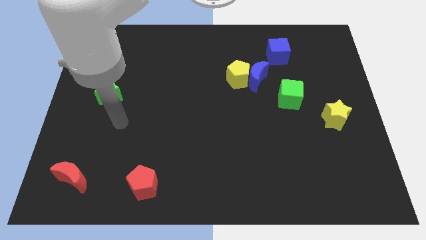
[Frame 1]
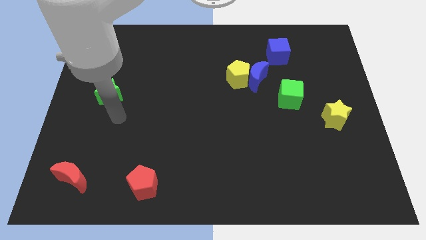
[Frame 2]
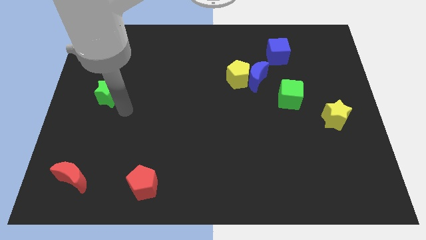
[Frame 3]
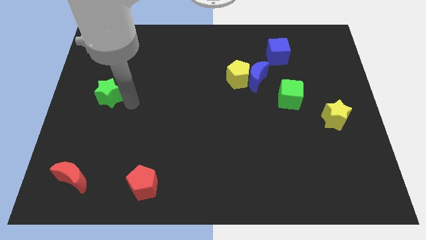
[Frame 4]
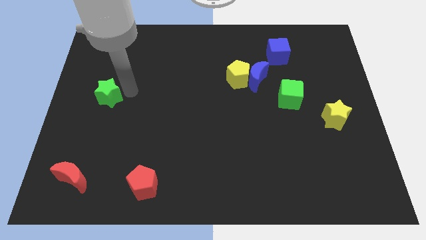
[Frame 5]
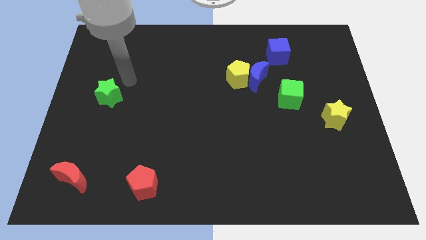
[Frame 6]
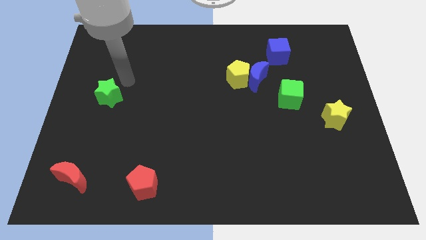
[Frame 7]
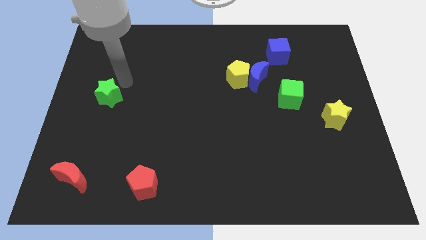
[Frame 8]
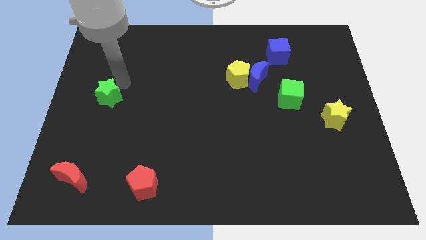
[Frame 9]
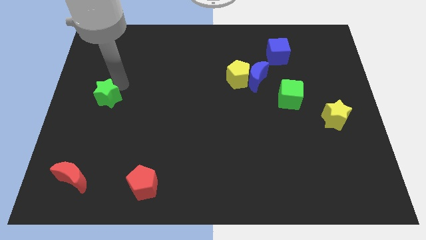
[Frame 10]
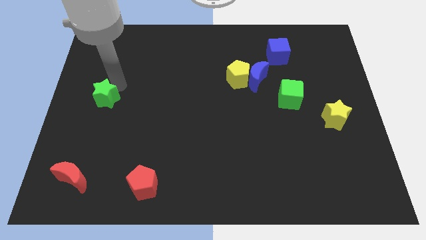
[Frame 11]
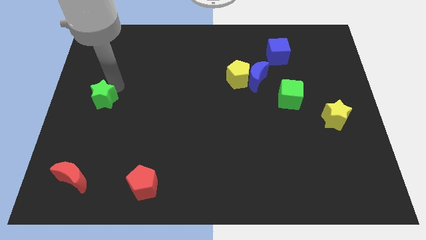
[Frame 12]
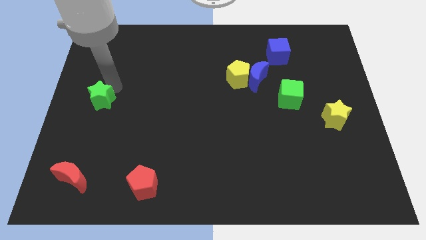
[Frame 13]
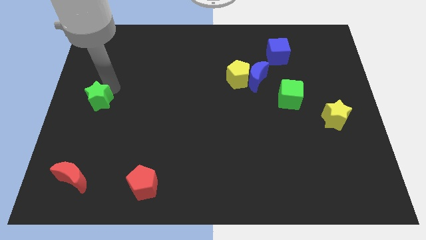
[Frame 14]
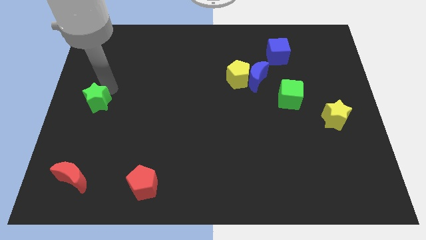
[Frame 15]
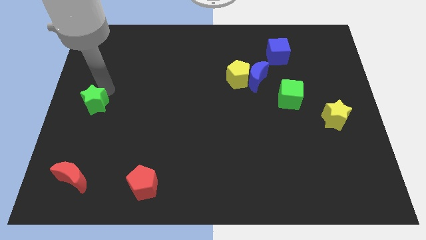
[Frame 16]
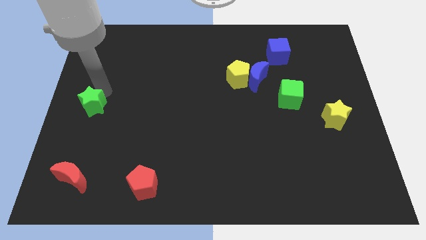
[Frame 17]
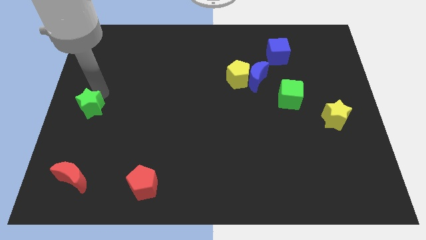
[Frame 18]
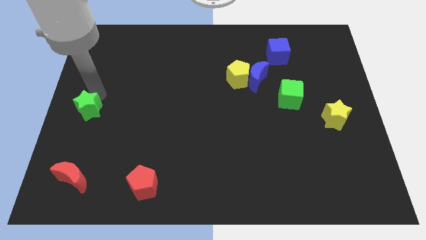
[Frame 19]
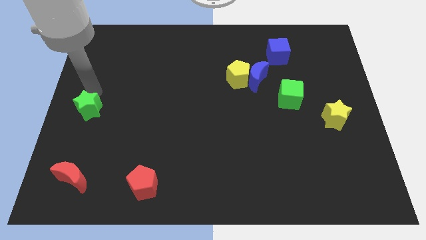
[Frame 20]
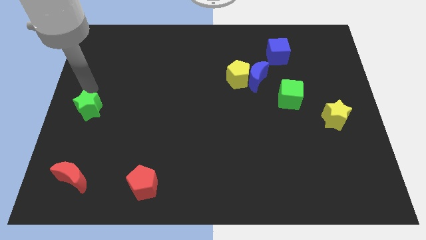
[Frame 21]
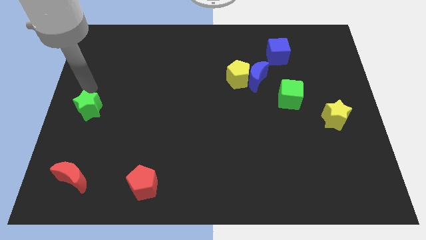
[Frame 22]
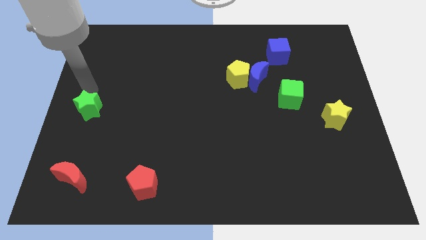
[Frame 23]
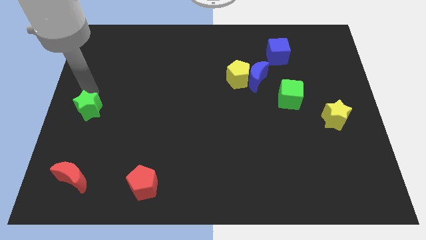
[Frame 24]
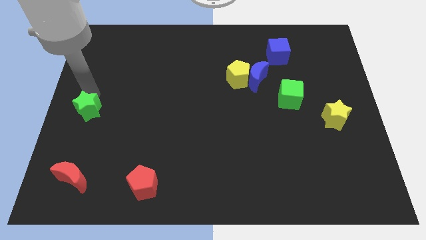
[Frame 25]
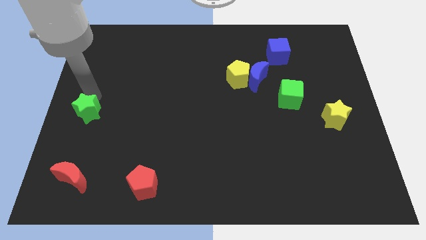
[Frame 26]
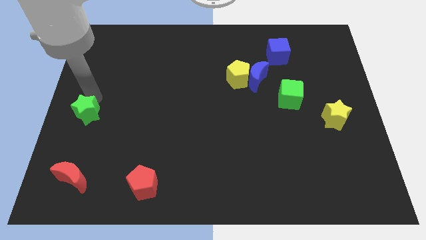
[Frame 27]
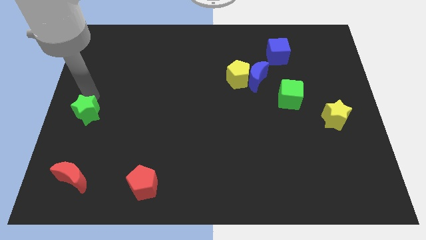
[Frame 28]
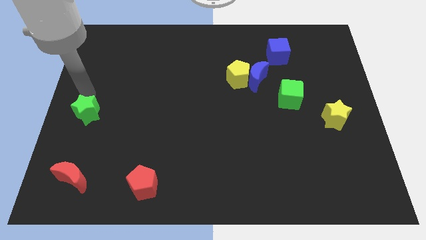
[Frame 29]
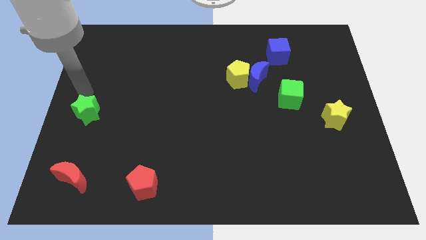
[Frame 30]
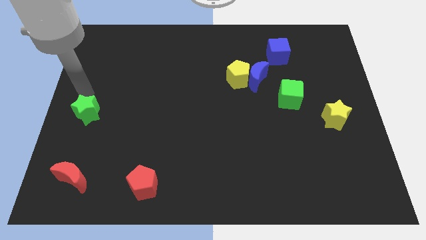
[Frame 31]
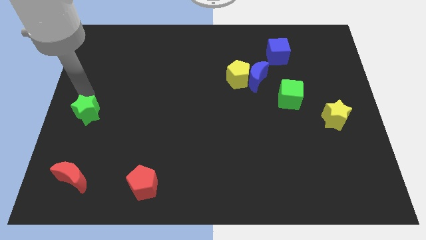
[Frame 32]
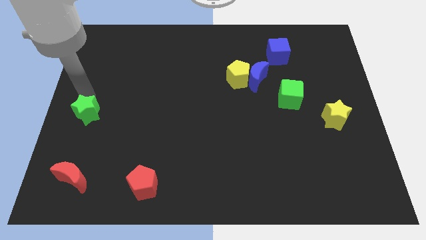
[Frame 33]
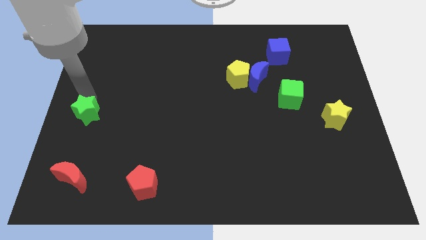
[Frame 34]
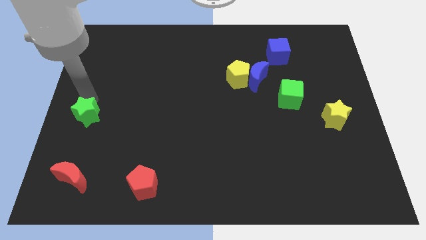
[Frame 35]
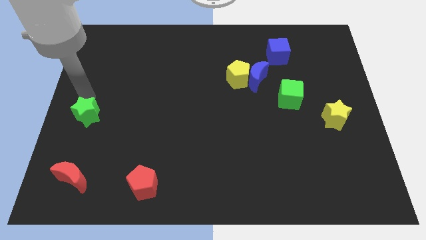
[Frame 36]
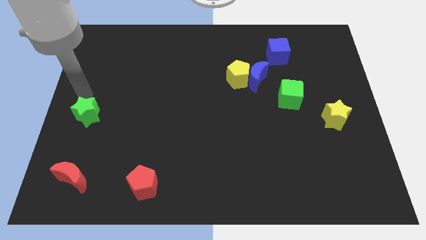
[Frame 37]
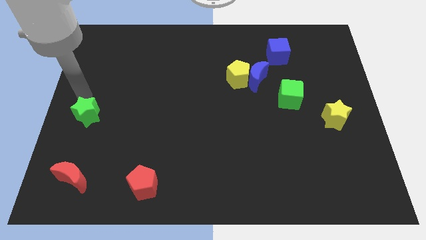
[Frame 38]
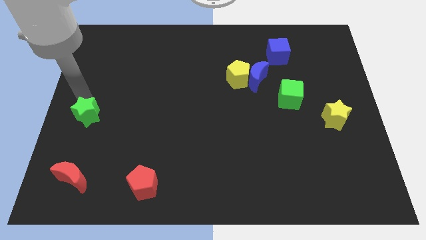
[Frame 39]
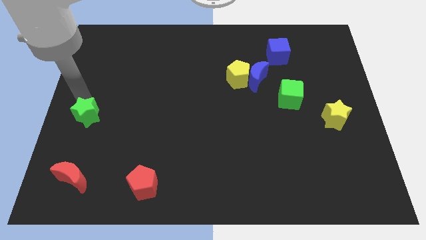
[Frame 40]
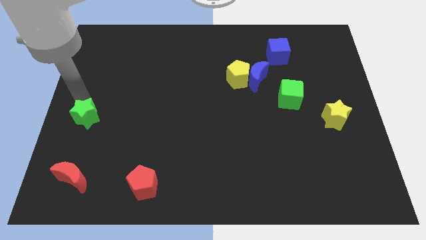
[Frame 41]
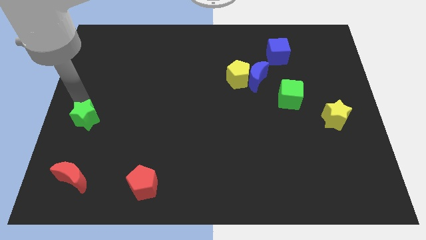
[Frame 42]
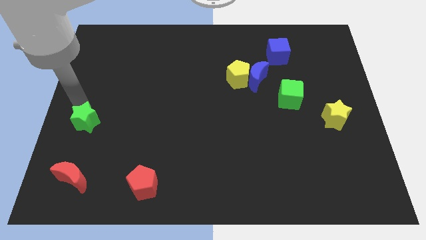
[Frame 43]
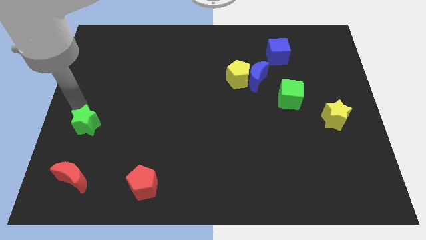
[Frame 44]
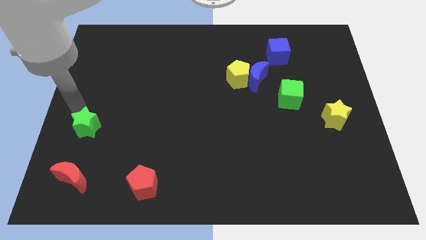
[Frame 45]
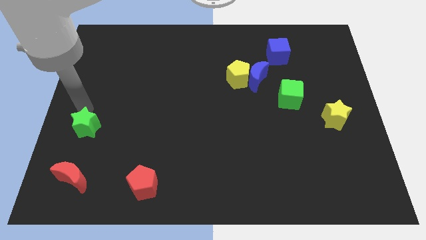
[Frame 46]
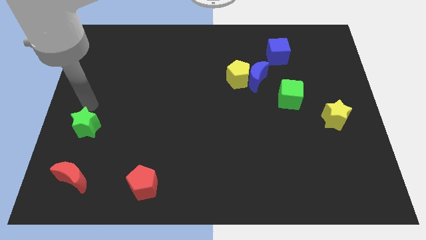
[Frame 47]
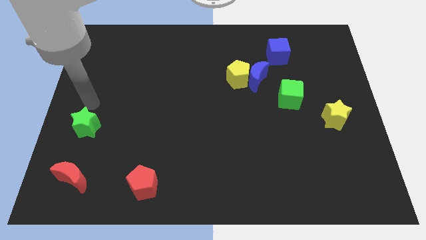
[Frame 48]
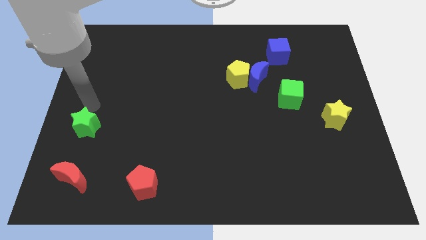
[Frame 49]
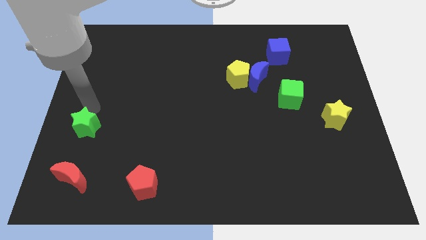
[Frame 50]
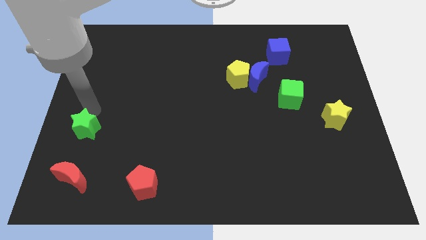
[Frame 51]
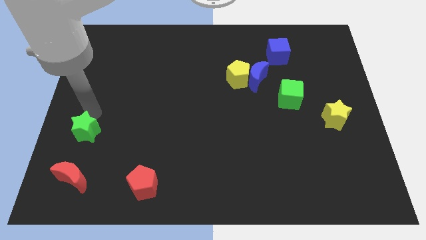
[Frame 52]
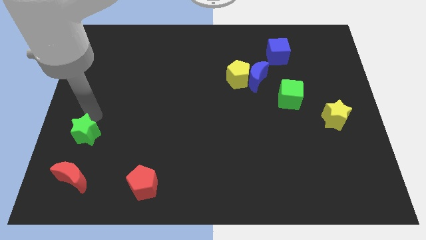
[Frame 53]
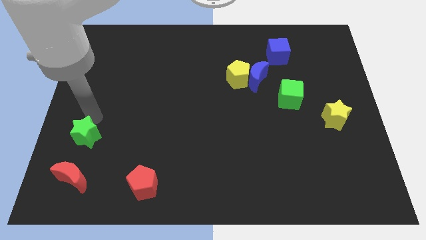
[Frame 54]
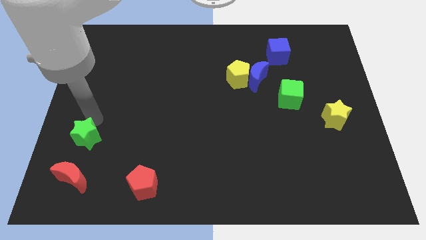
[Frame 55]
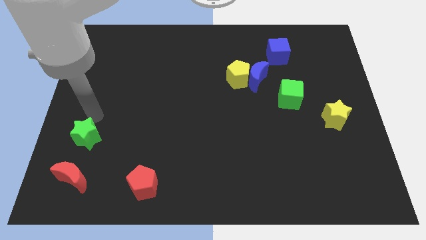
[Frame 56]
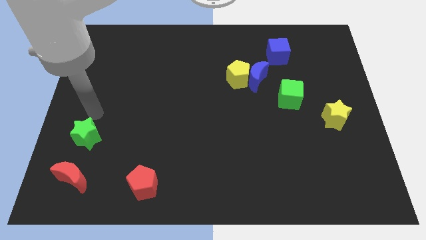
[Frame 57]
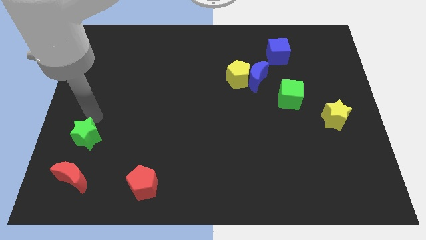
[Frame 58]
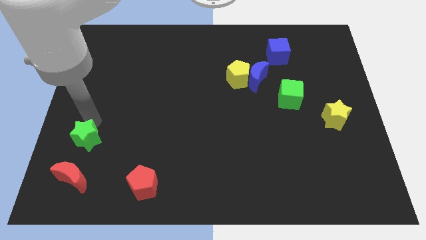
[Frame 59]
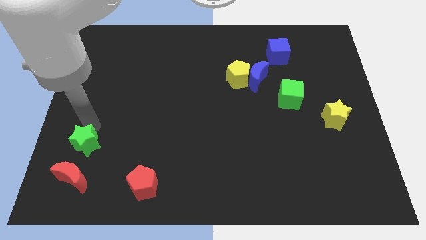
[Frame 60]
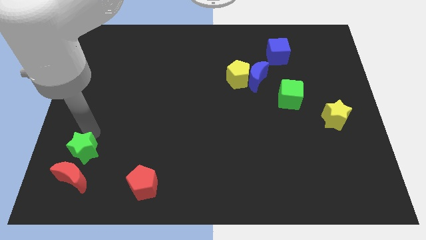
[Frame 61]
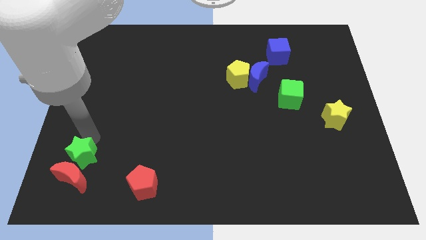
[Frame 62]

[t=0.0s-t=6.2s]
put the green star to the red moon
